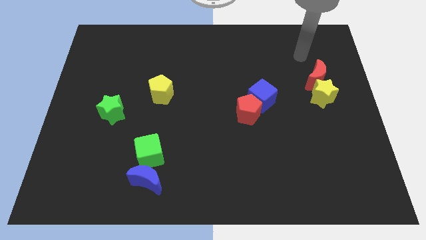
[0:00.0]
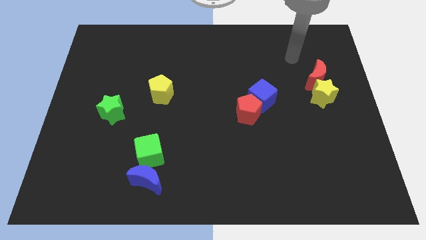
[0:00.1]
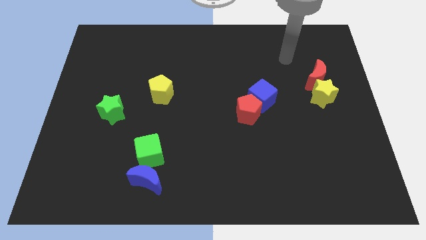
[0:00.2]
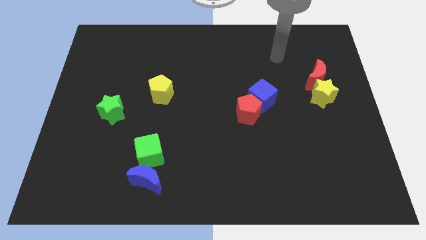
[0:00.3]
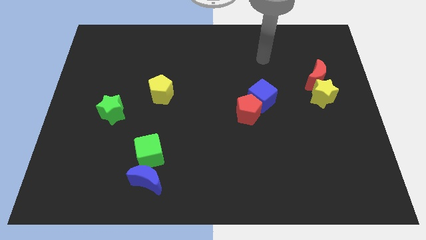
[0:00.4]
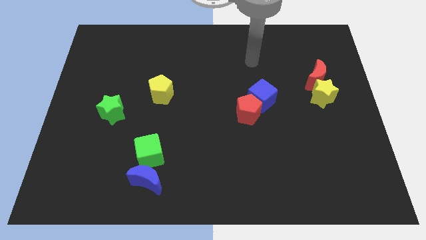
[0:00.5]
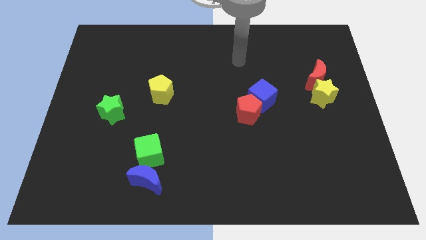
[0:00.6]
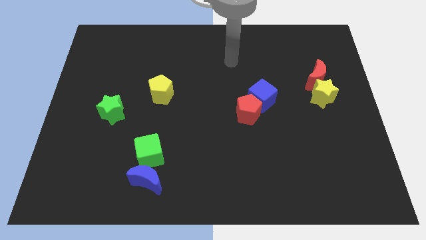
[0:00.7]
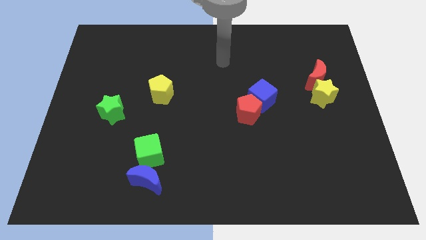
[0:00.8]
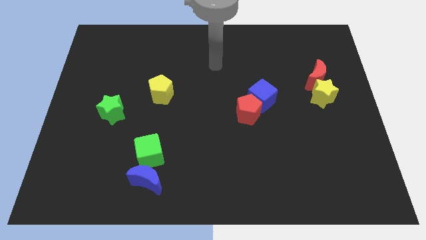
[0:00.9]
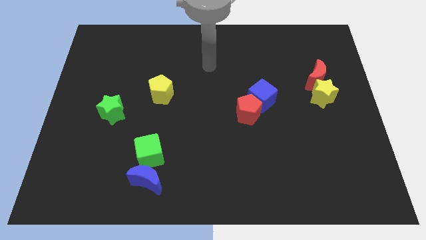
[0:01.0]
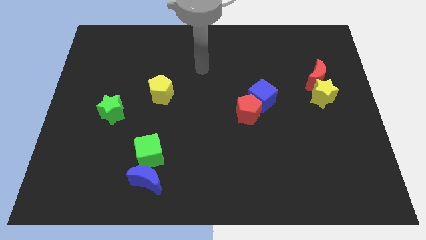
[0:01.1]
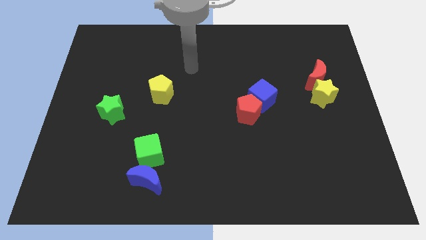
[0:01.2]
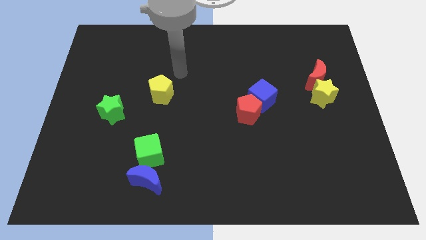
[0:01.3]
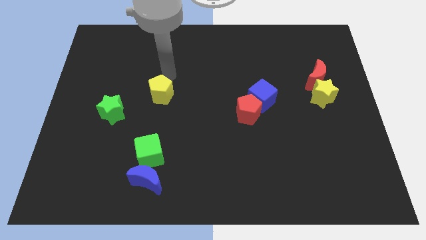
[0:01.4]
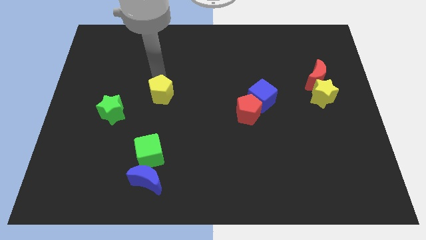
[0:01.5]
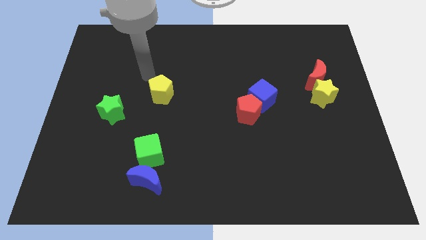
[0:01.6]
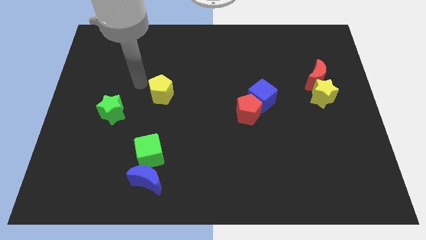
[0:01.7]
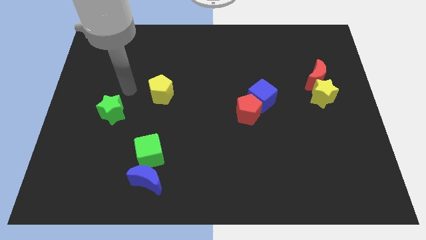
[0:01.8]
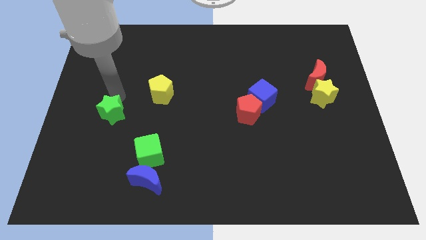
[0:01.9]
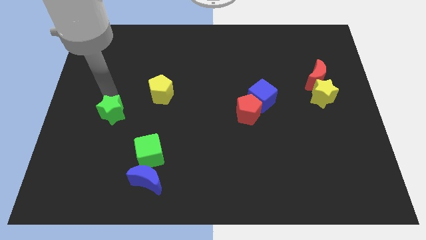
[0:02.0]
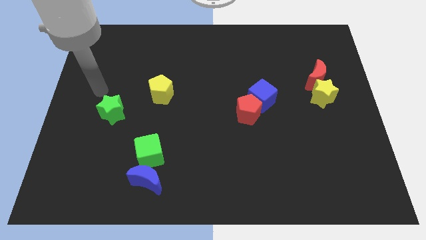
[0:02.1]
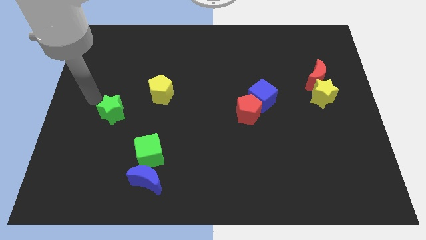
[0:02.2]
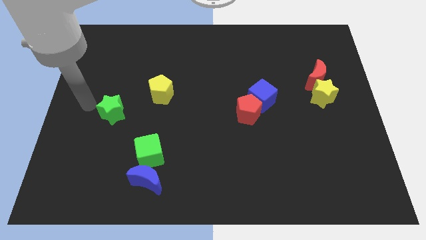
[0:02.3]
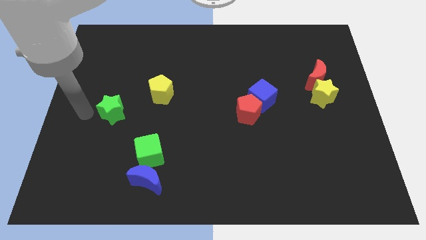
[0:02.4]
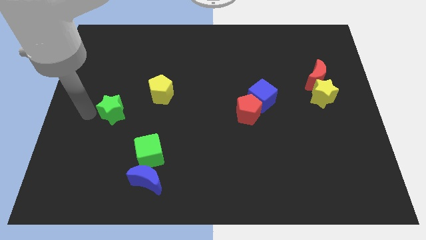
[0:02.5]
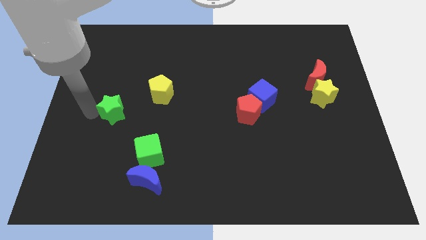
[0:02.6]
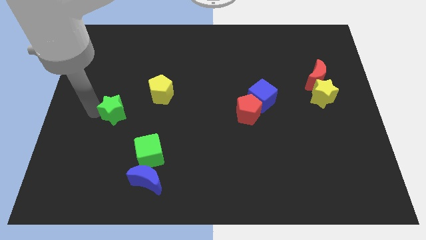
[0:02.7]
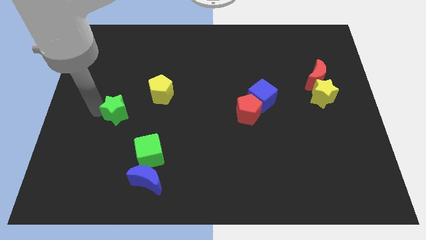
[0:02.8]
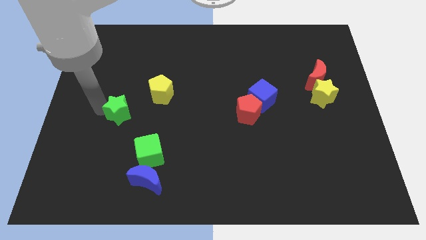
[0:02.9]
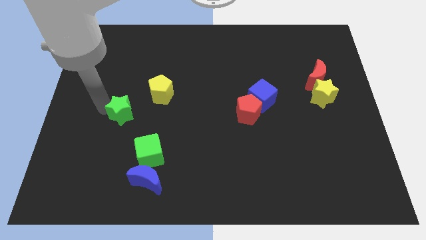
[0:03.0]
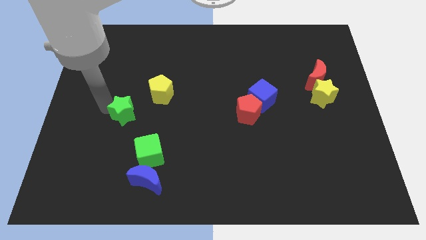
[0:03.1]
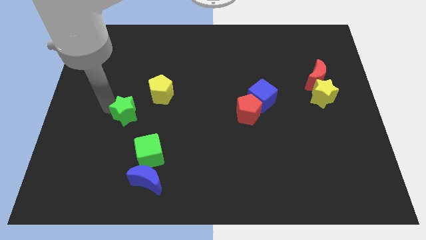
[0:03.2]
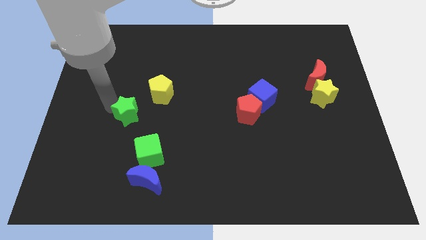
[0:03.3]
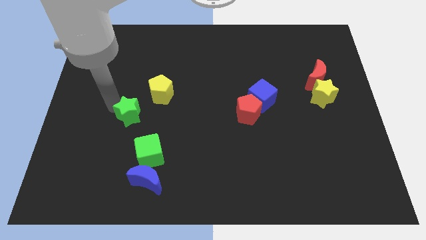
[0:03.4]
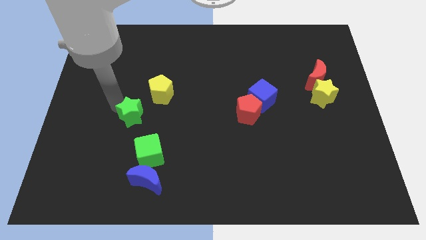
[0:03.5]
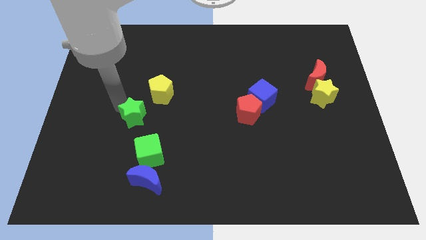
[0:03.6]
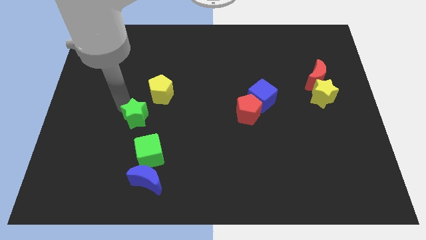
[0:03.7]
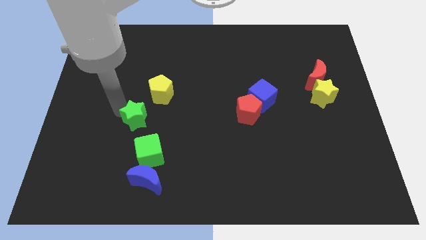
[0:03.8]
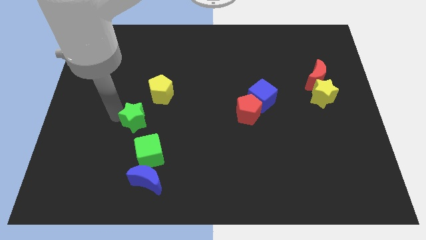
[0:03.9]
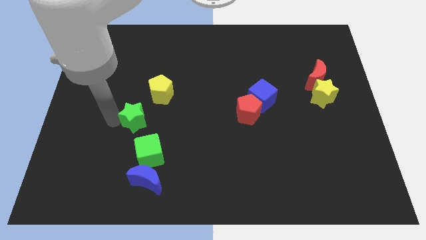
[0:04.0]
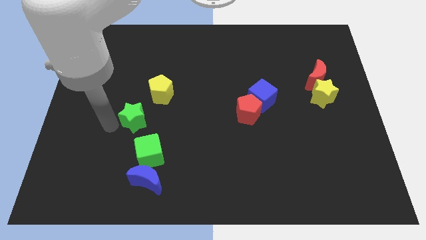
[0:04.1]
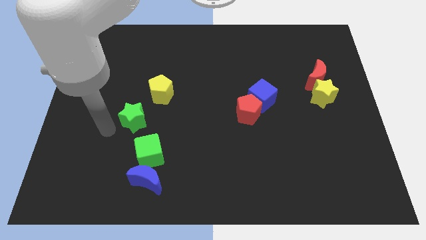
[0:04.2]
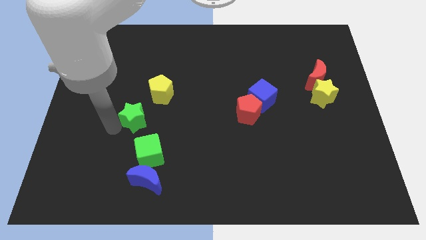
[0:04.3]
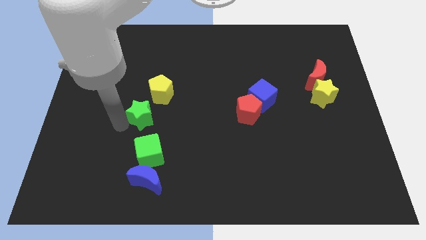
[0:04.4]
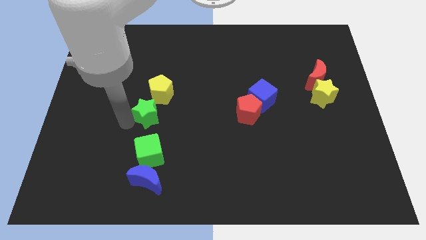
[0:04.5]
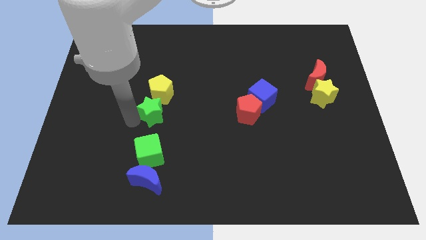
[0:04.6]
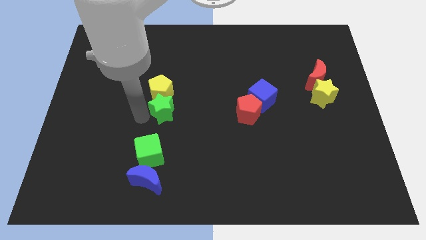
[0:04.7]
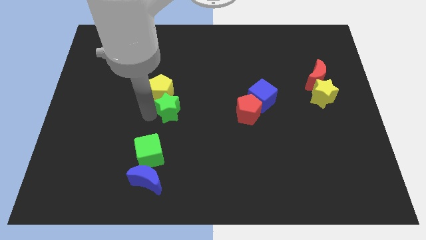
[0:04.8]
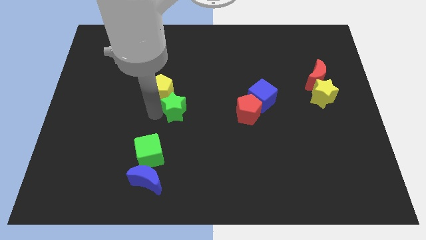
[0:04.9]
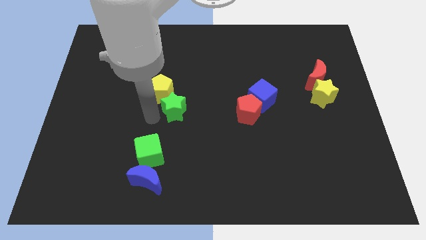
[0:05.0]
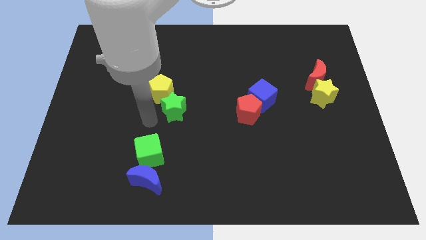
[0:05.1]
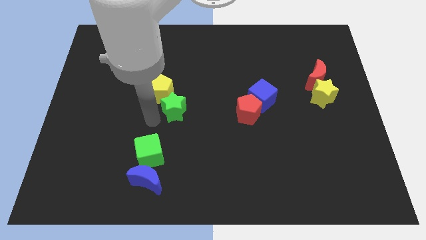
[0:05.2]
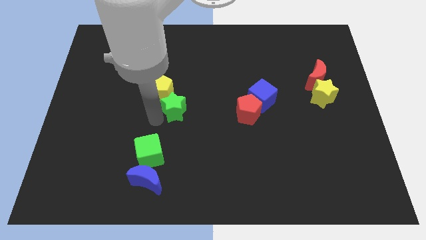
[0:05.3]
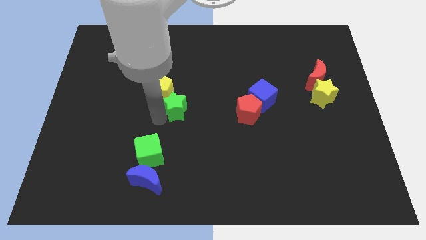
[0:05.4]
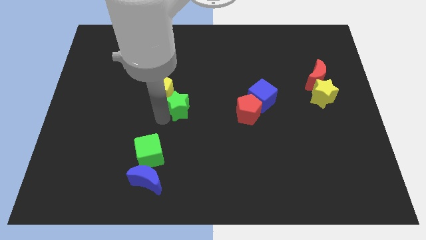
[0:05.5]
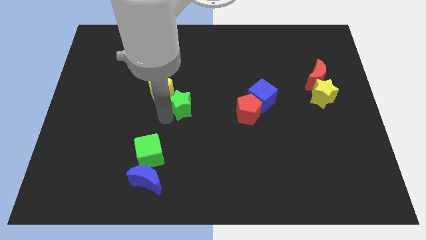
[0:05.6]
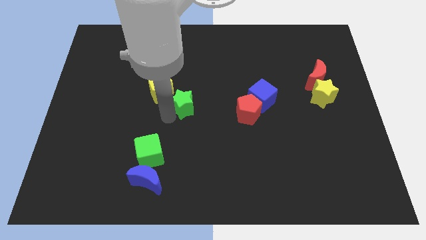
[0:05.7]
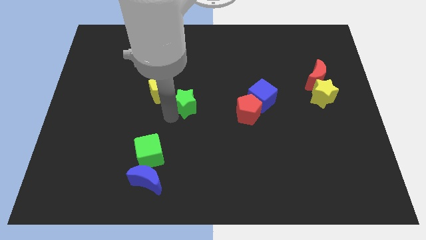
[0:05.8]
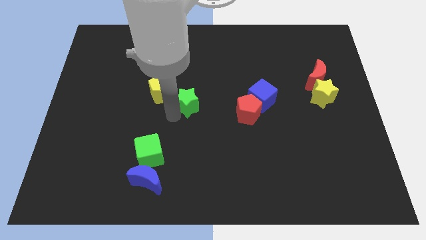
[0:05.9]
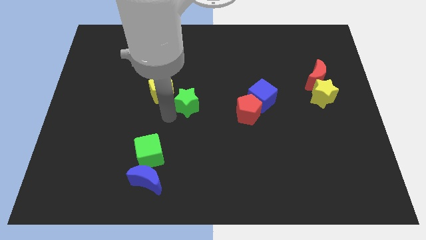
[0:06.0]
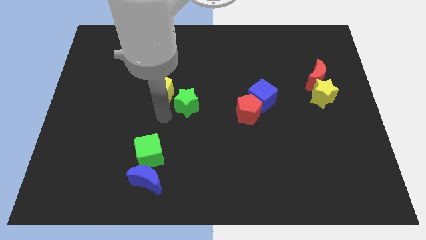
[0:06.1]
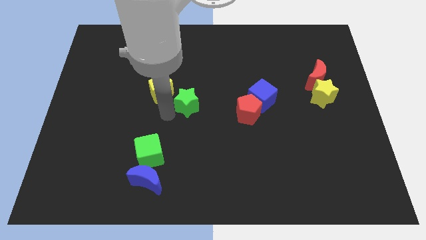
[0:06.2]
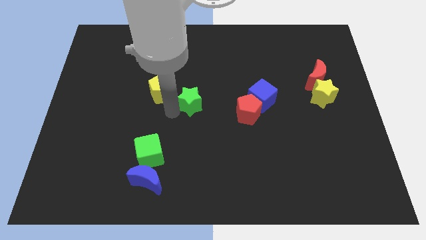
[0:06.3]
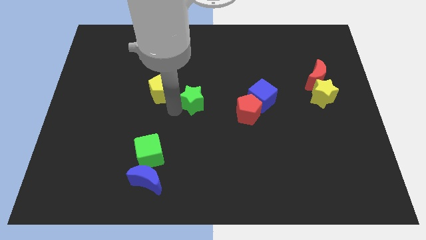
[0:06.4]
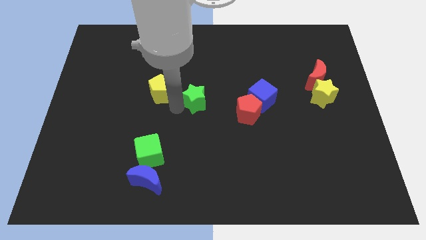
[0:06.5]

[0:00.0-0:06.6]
move the green star left of the blue cube

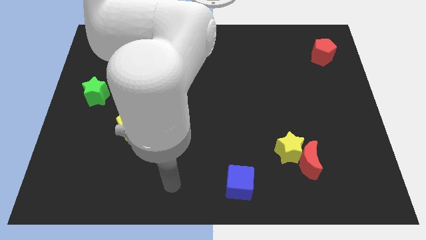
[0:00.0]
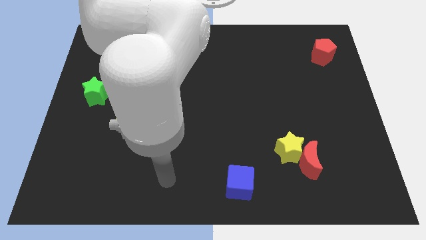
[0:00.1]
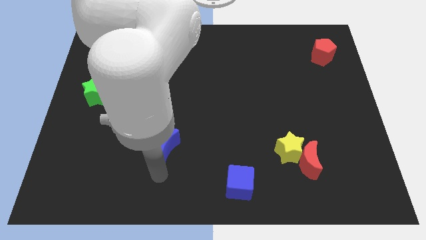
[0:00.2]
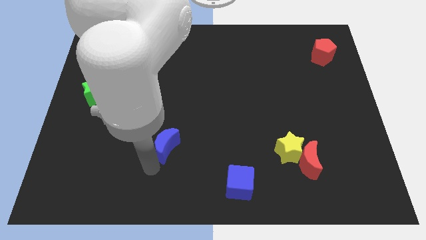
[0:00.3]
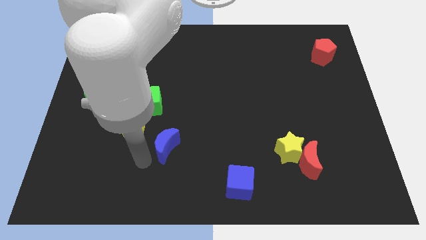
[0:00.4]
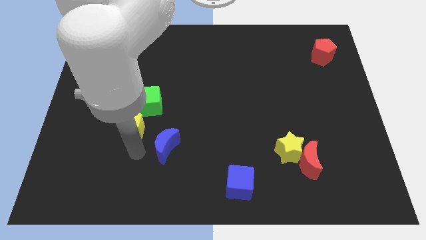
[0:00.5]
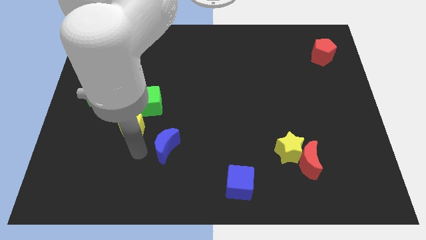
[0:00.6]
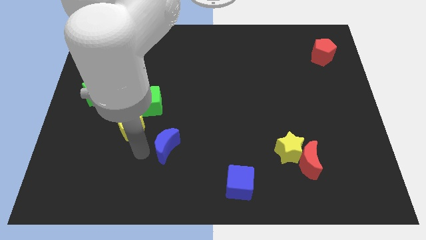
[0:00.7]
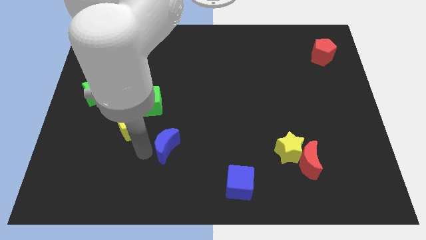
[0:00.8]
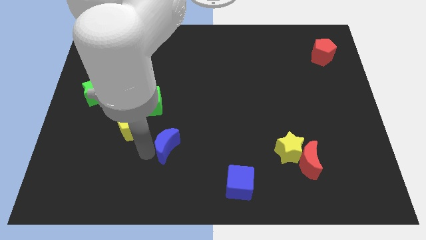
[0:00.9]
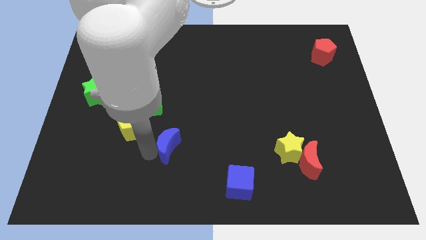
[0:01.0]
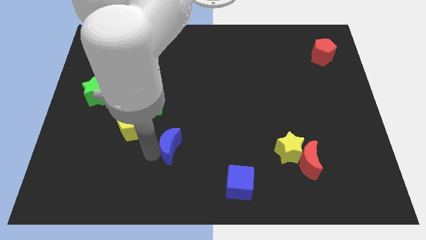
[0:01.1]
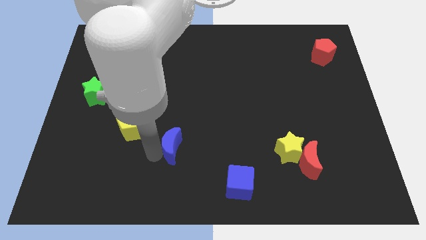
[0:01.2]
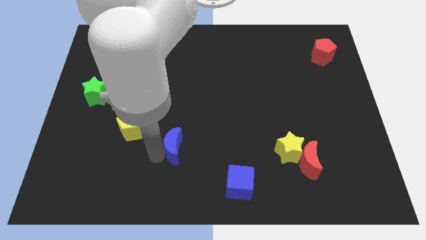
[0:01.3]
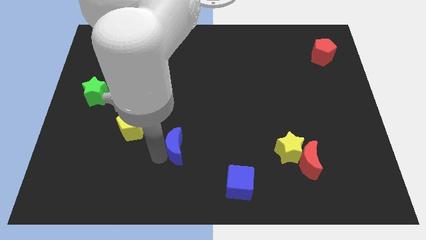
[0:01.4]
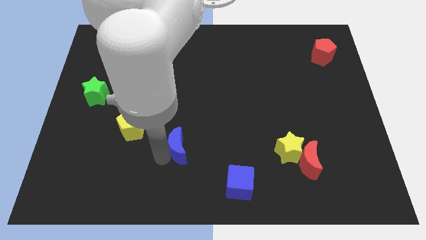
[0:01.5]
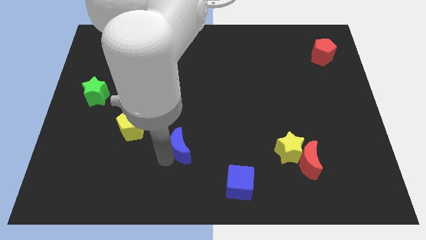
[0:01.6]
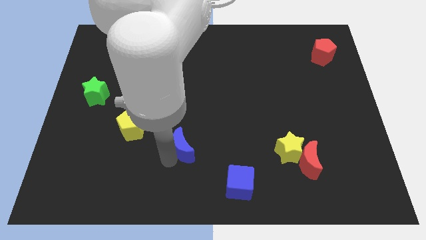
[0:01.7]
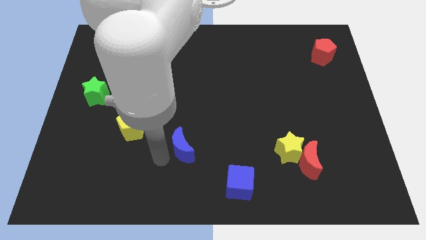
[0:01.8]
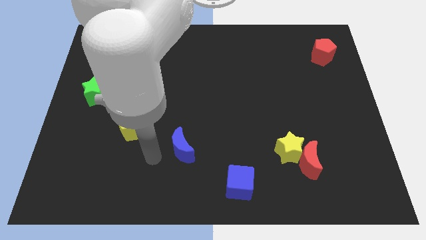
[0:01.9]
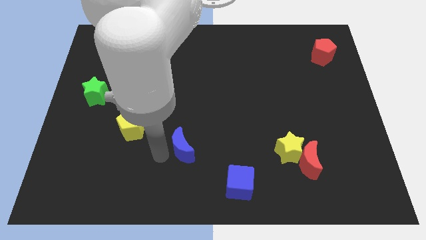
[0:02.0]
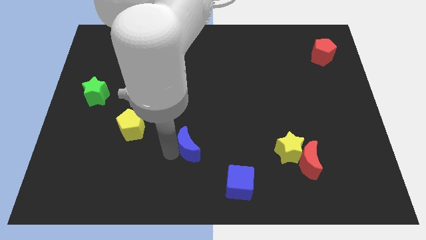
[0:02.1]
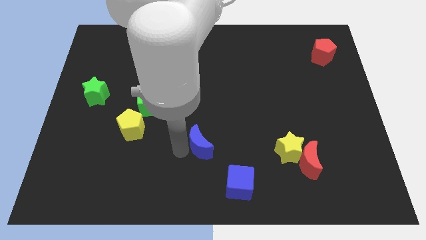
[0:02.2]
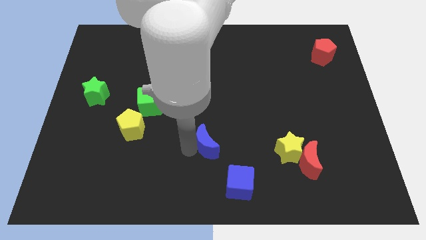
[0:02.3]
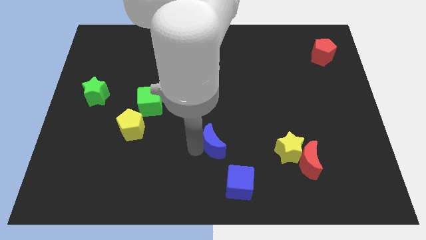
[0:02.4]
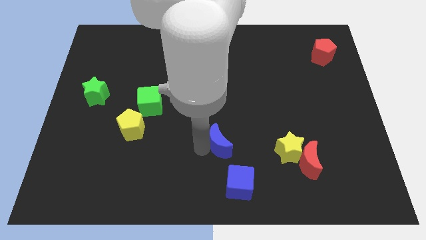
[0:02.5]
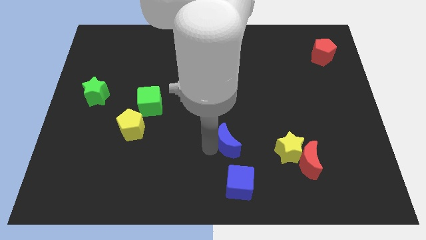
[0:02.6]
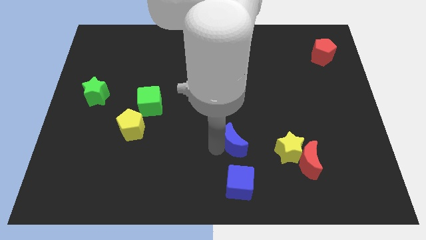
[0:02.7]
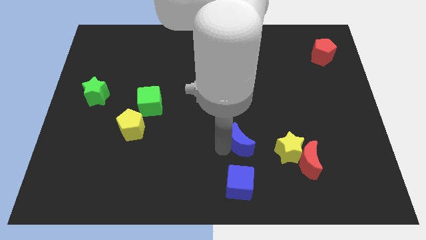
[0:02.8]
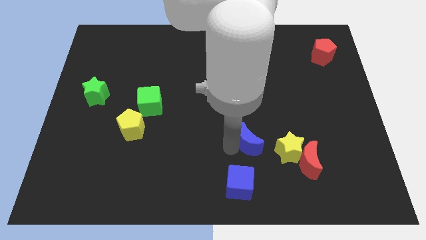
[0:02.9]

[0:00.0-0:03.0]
put the blue moon to the top left side of the yellow star
